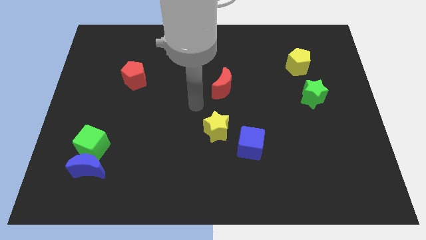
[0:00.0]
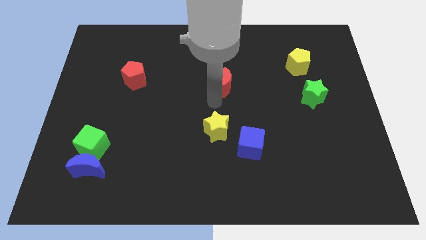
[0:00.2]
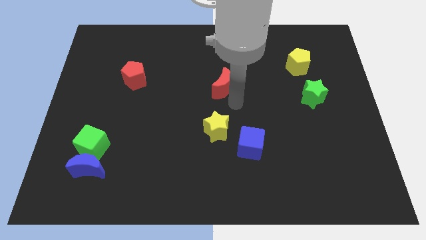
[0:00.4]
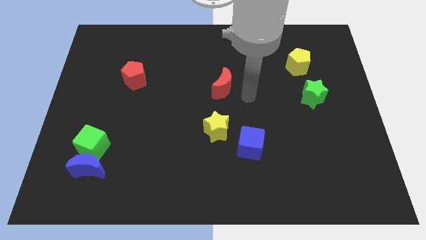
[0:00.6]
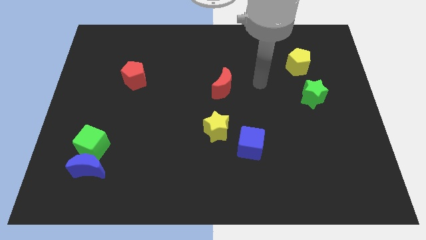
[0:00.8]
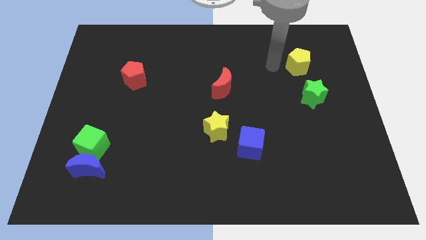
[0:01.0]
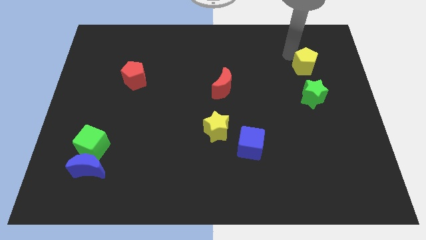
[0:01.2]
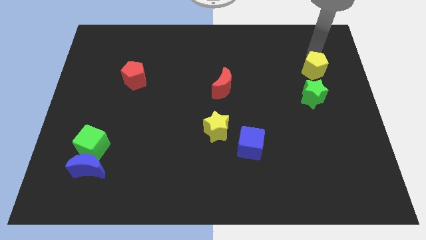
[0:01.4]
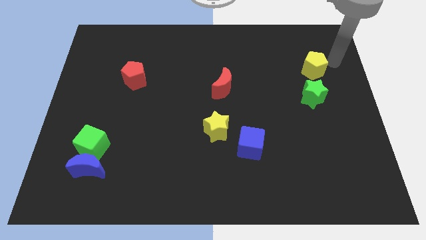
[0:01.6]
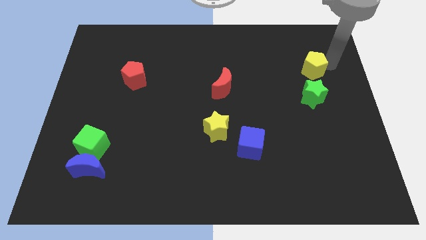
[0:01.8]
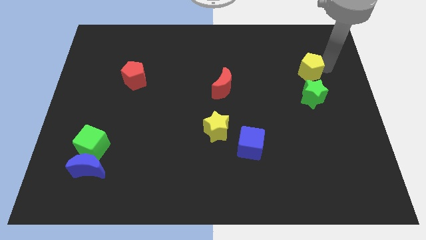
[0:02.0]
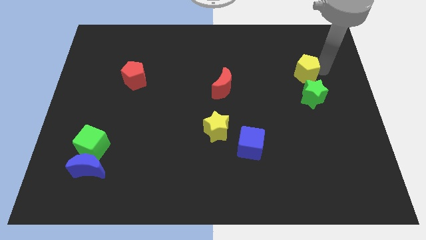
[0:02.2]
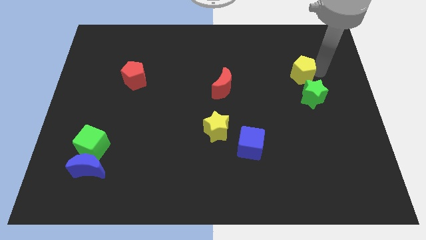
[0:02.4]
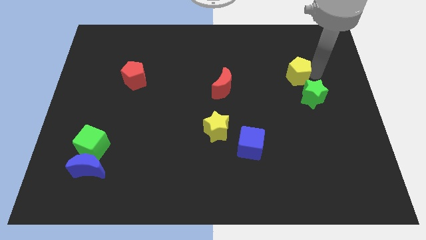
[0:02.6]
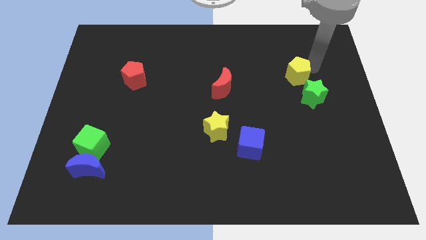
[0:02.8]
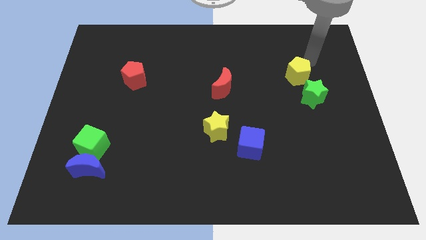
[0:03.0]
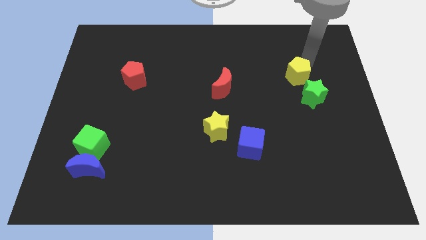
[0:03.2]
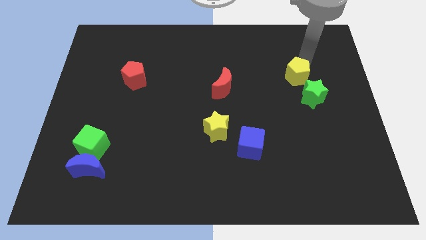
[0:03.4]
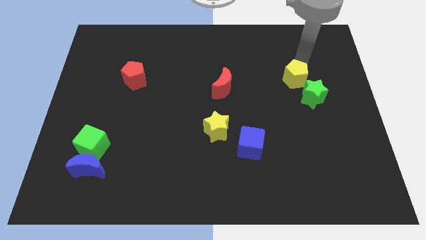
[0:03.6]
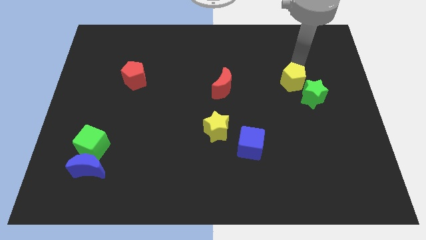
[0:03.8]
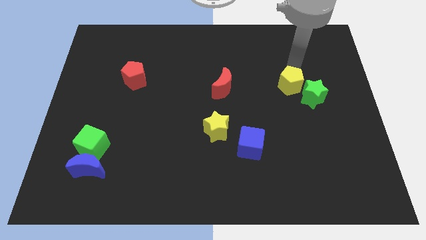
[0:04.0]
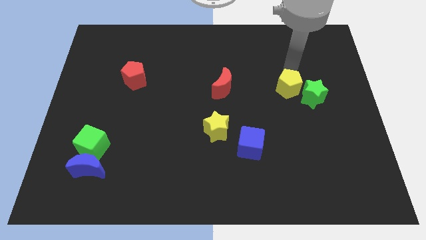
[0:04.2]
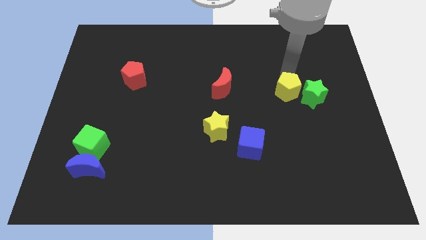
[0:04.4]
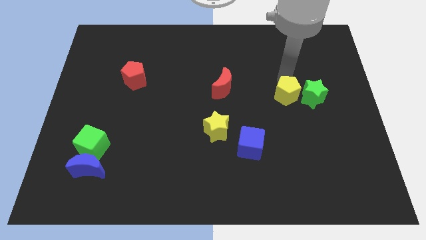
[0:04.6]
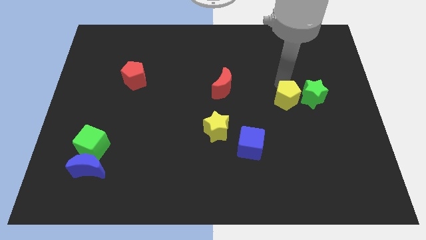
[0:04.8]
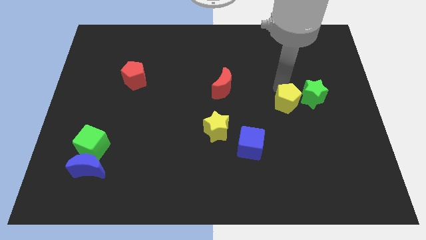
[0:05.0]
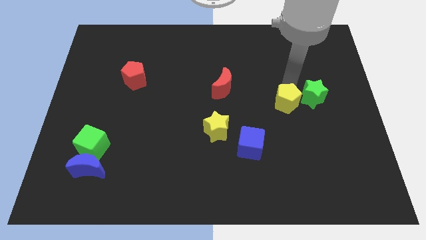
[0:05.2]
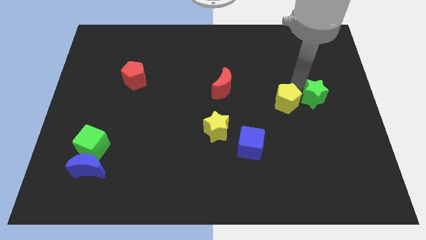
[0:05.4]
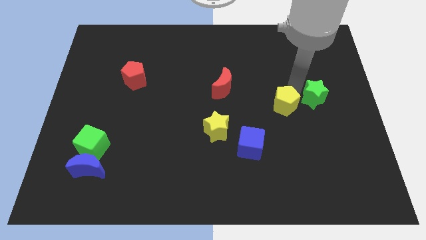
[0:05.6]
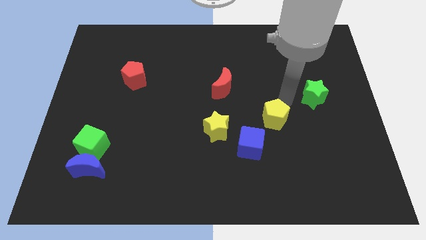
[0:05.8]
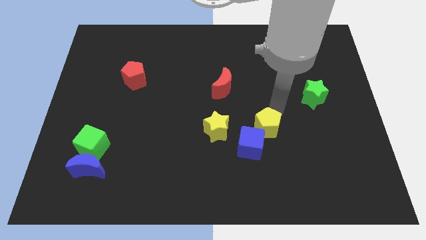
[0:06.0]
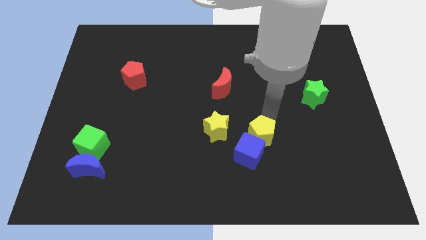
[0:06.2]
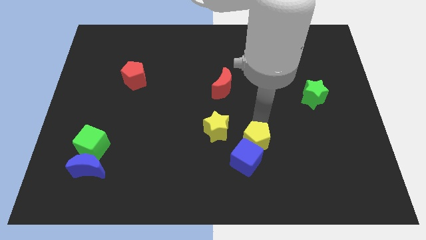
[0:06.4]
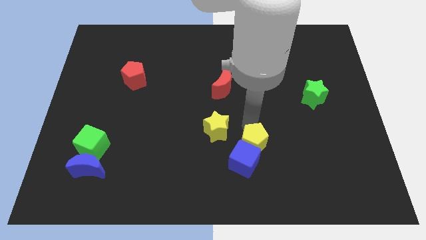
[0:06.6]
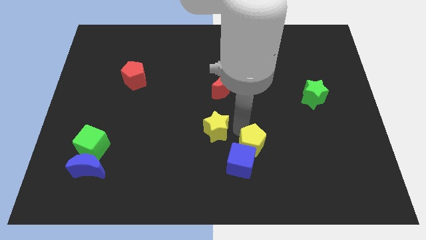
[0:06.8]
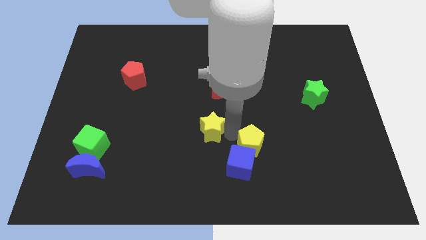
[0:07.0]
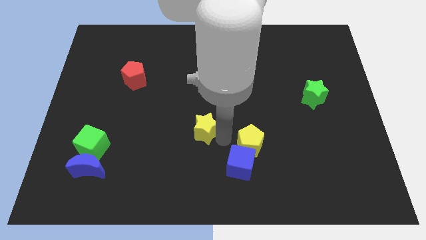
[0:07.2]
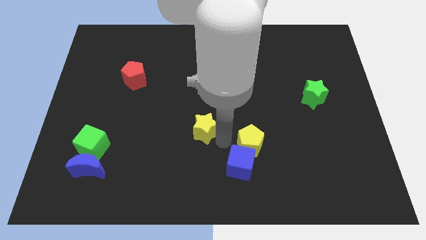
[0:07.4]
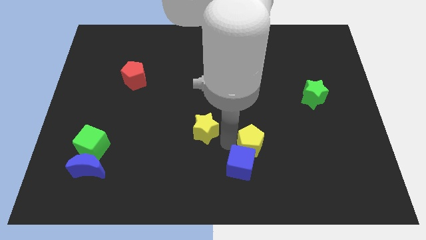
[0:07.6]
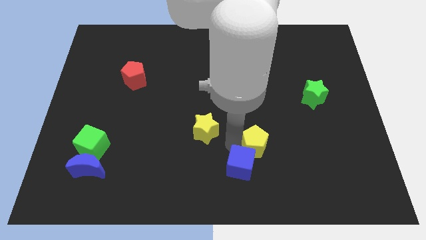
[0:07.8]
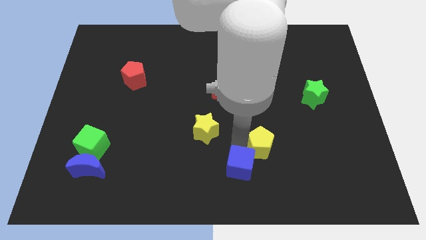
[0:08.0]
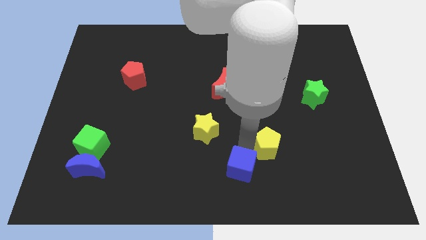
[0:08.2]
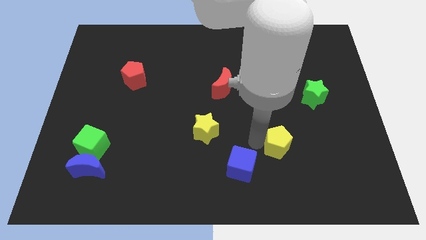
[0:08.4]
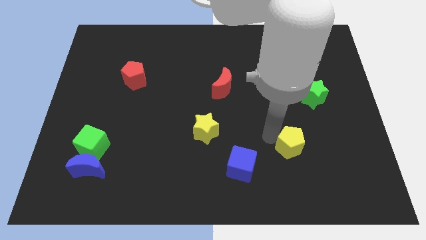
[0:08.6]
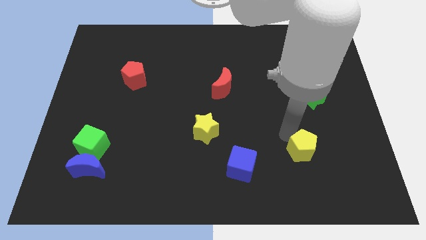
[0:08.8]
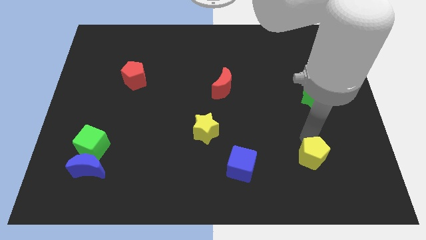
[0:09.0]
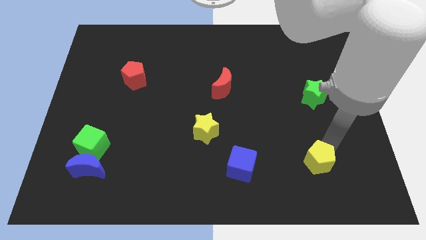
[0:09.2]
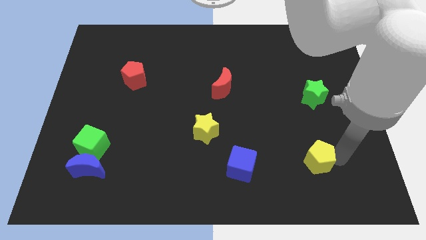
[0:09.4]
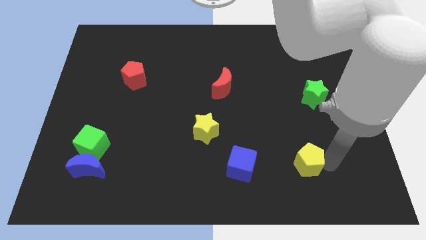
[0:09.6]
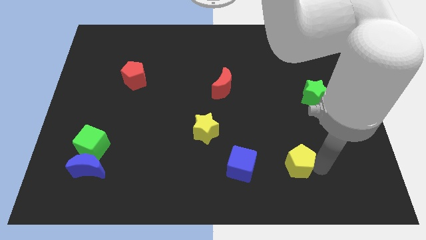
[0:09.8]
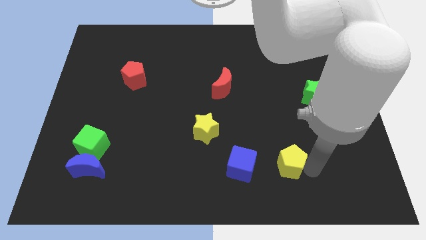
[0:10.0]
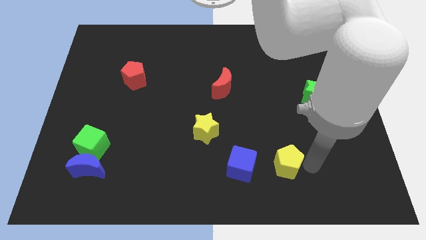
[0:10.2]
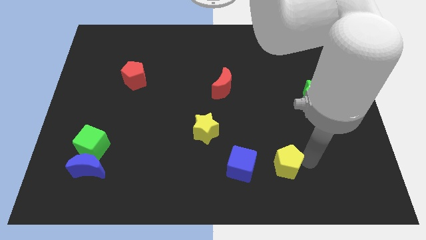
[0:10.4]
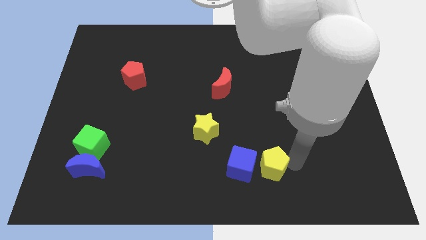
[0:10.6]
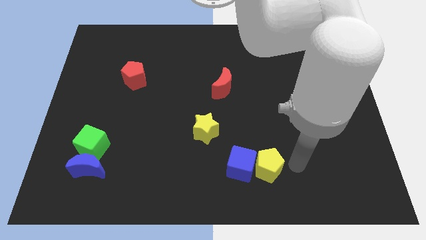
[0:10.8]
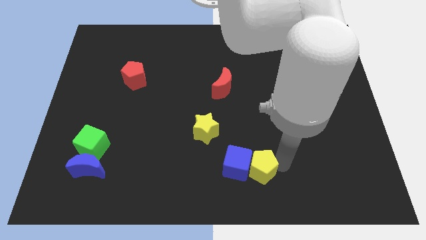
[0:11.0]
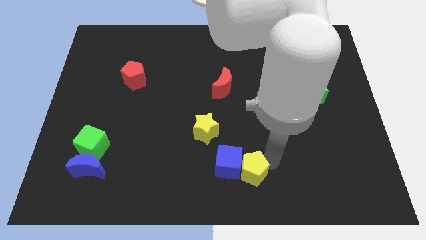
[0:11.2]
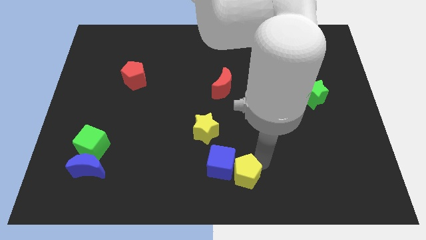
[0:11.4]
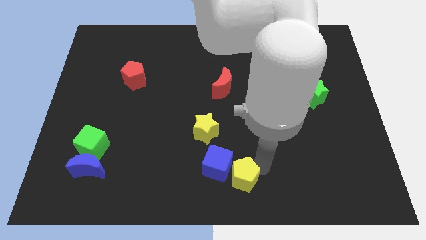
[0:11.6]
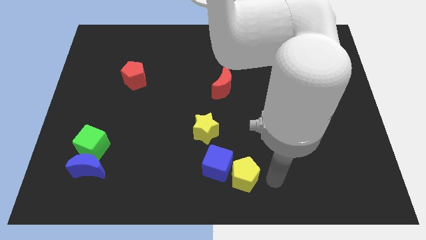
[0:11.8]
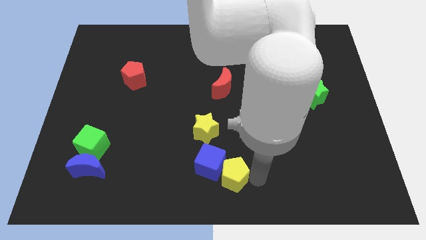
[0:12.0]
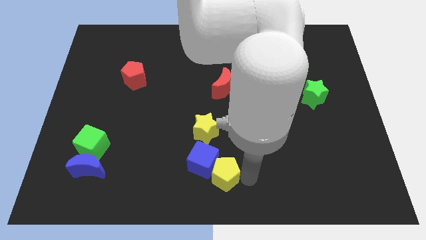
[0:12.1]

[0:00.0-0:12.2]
push the yellow pentagon to the bottom side of the yellow star
